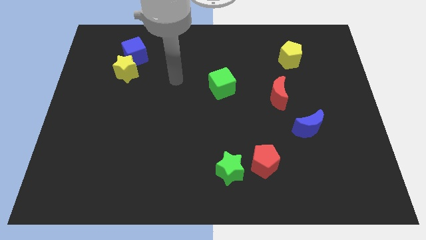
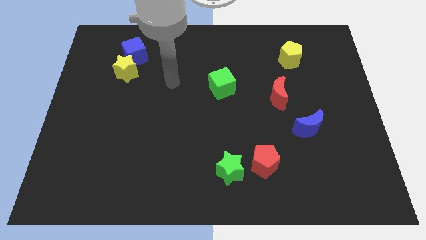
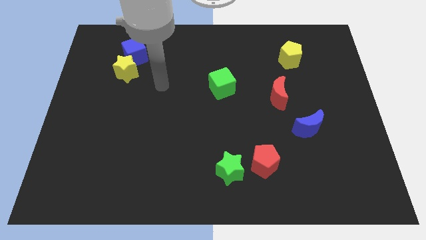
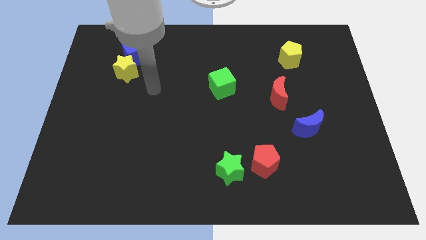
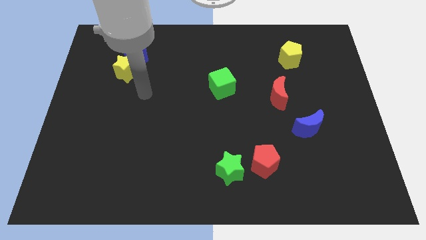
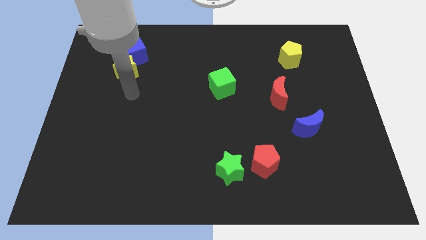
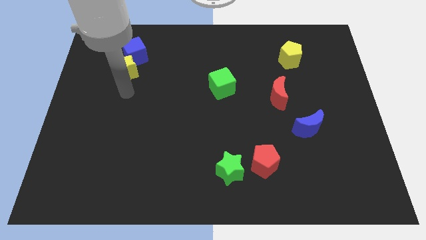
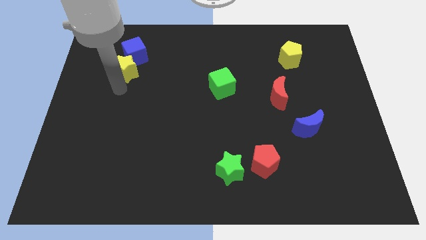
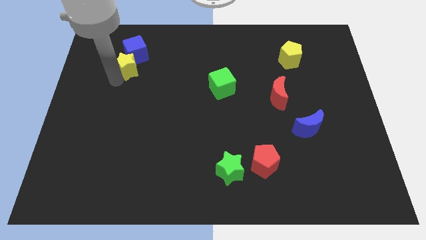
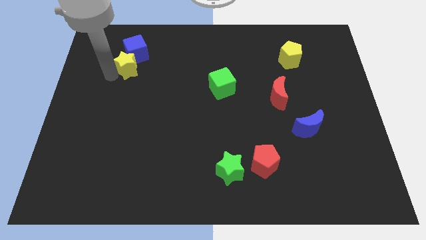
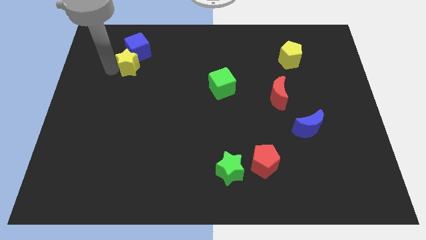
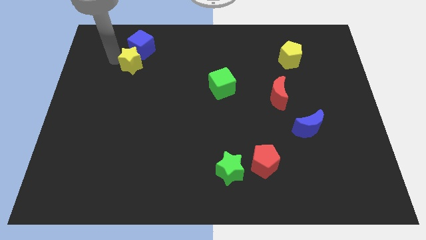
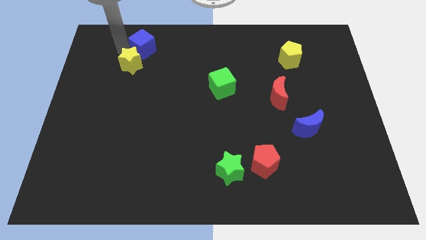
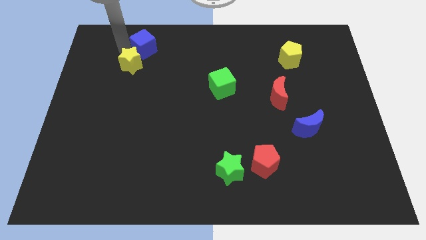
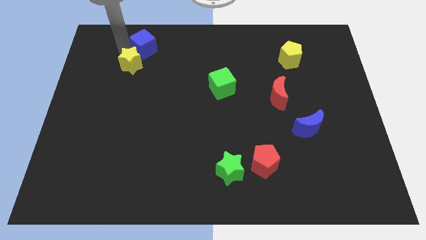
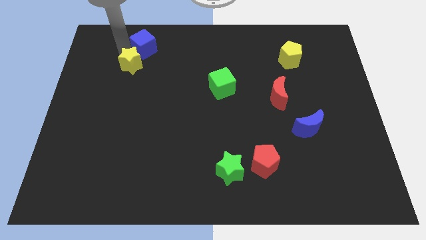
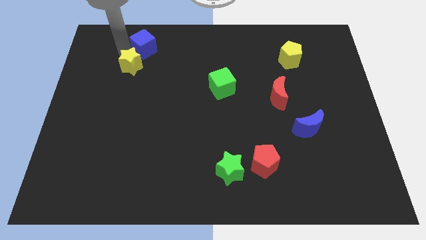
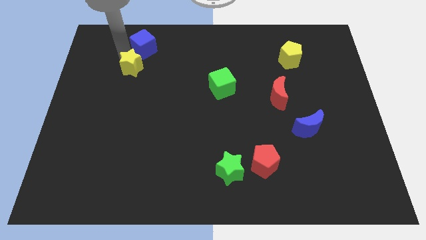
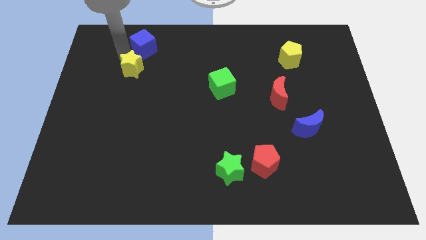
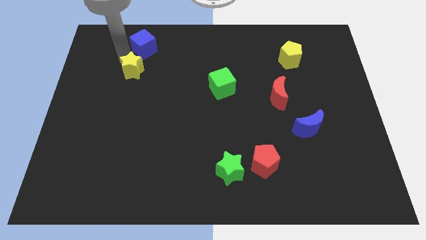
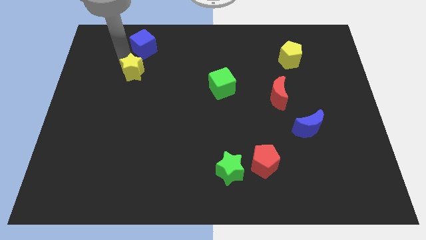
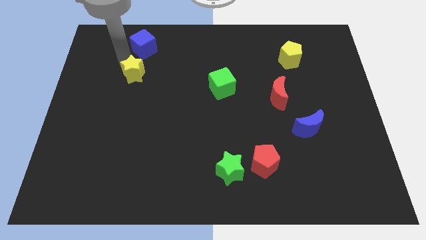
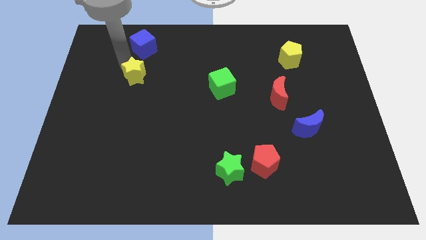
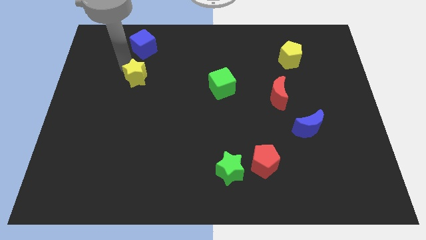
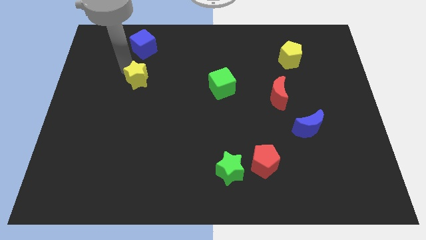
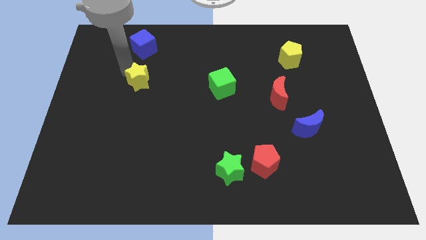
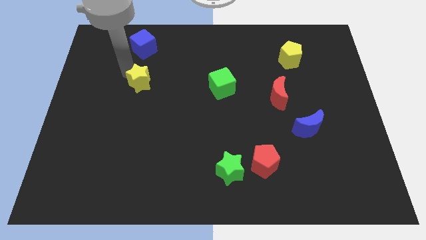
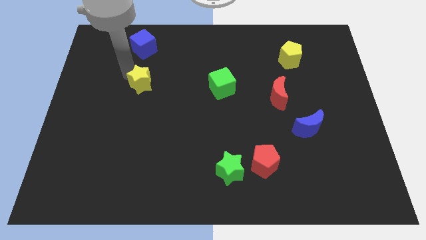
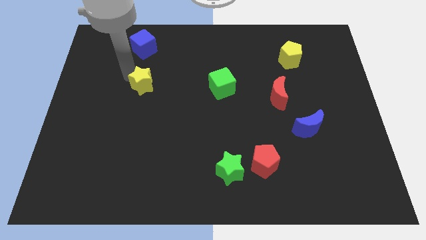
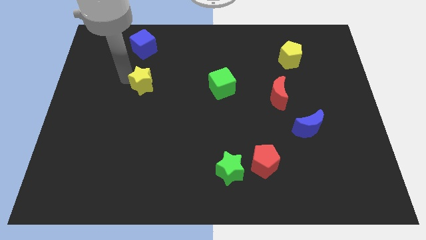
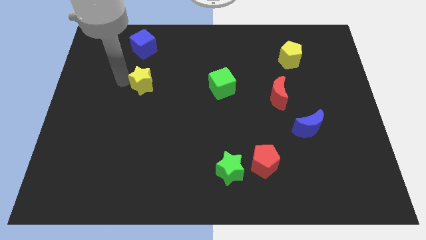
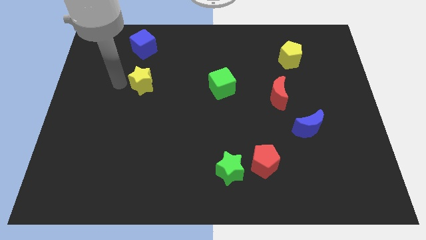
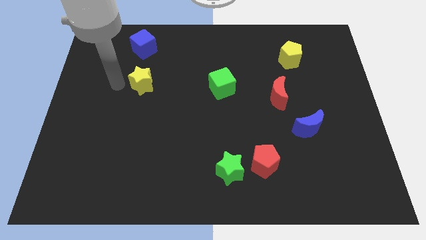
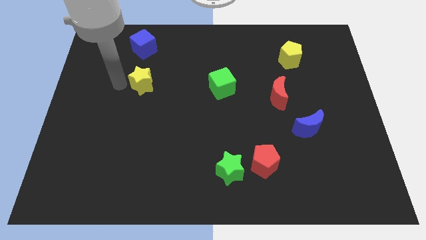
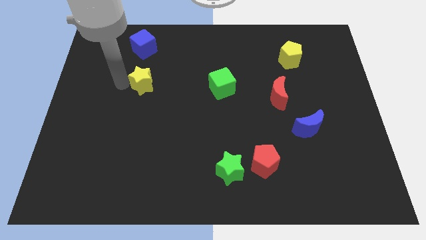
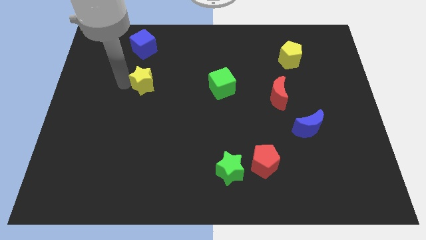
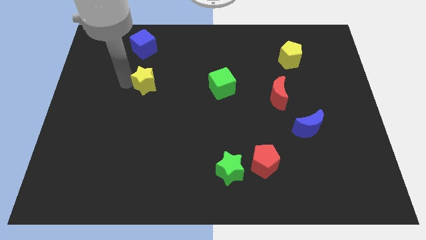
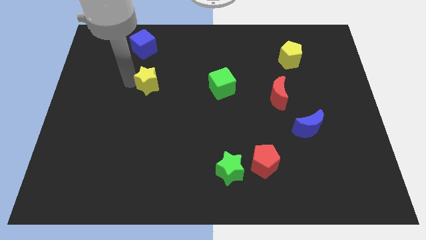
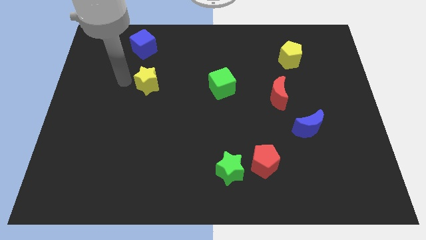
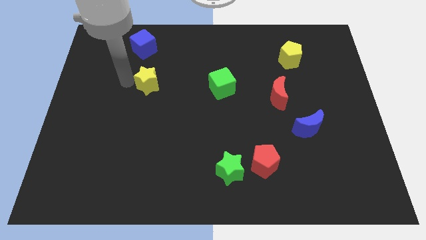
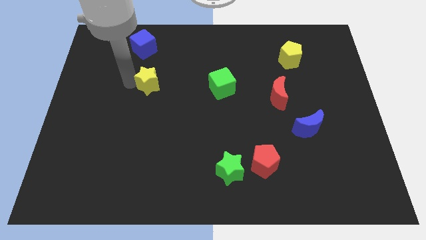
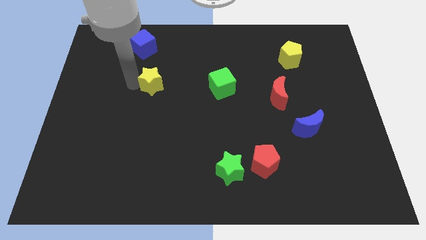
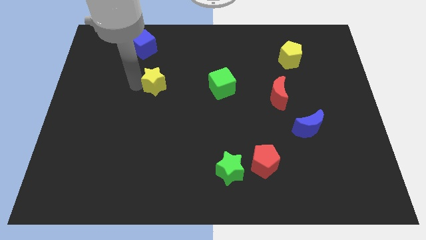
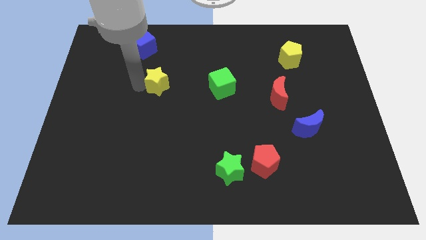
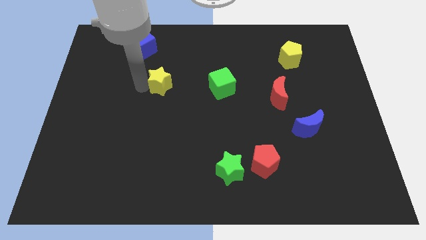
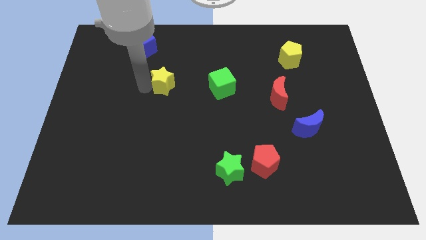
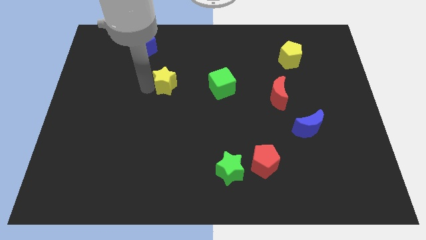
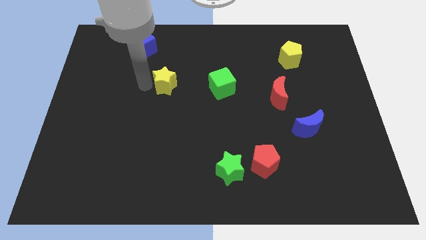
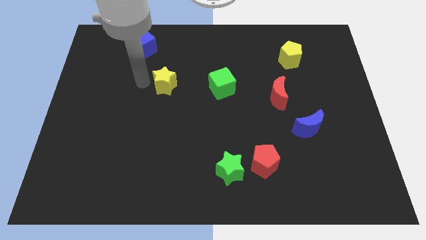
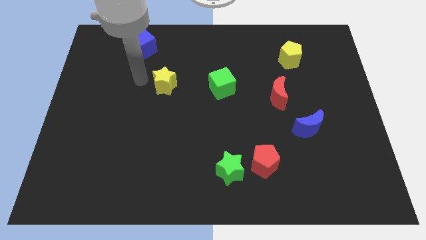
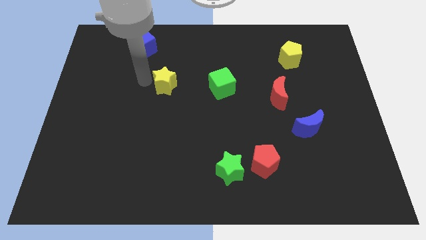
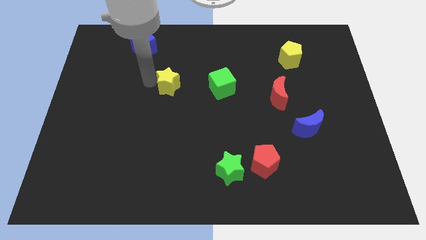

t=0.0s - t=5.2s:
move the yellow star to the center of the board

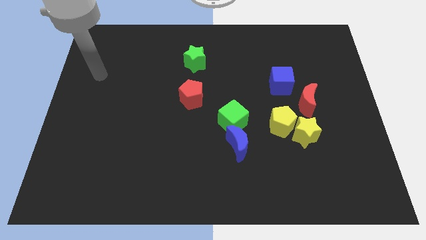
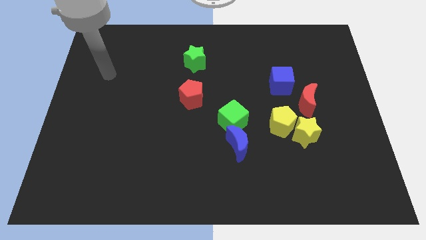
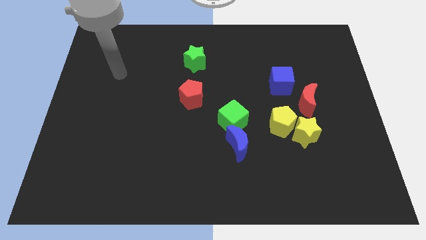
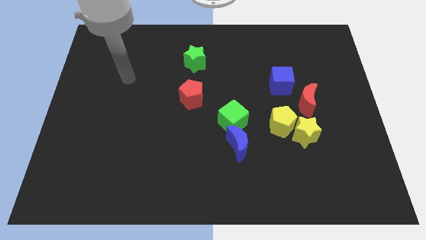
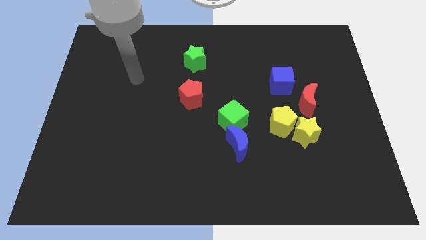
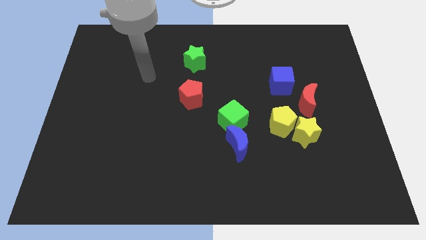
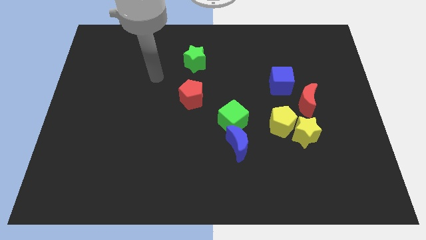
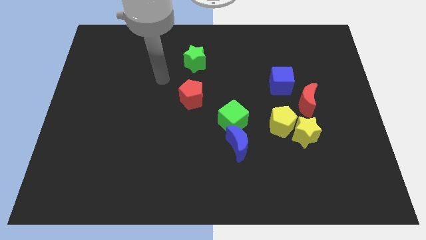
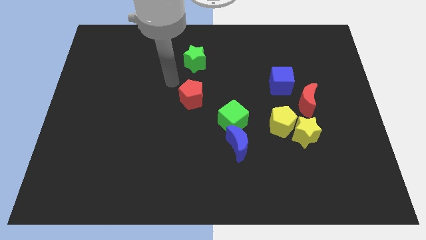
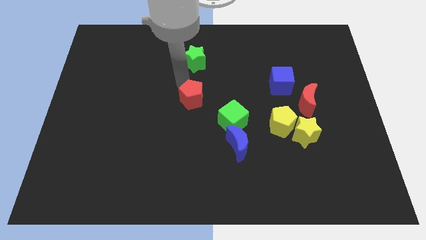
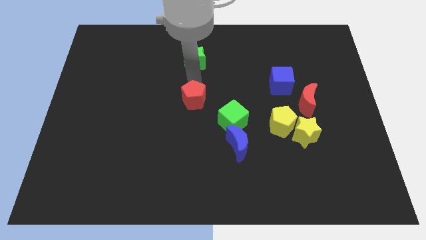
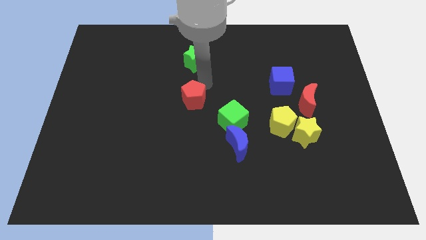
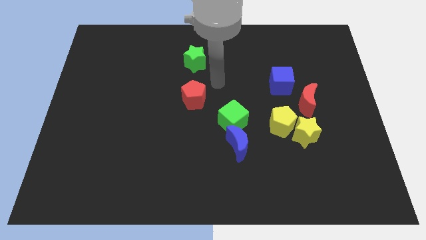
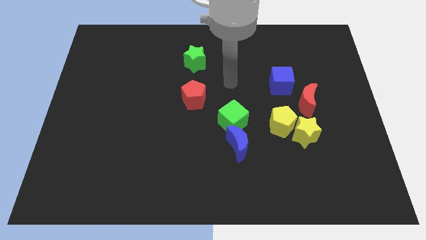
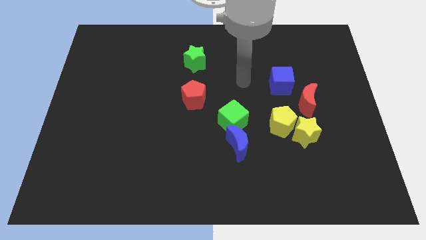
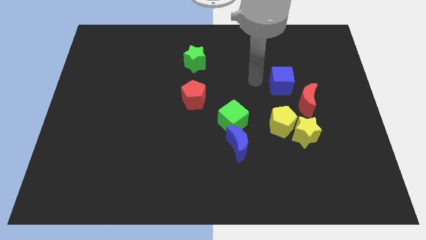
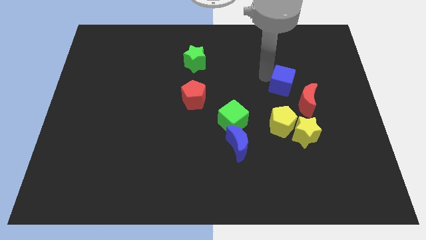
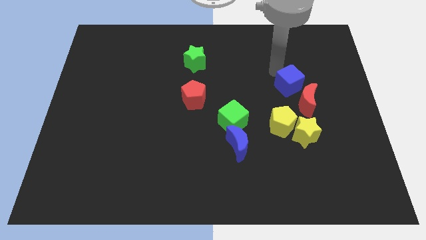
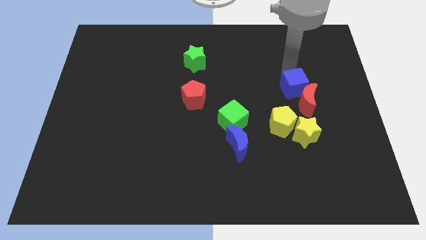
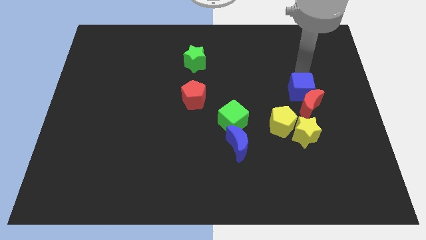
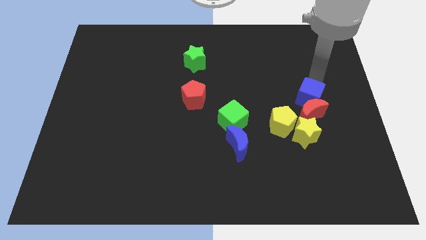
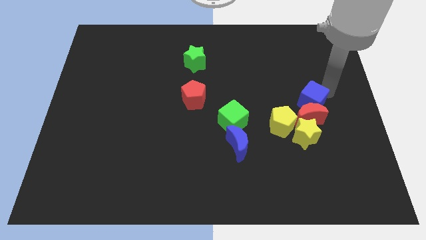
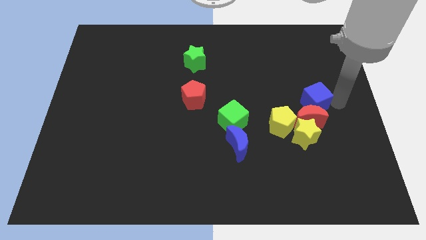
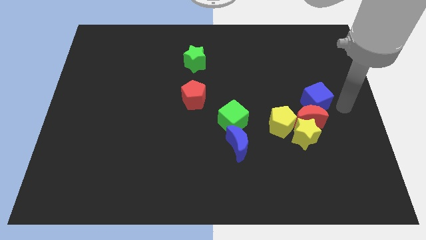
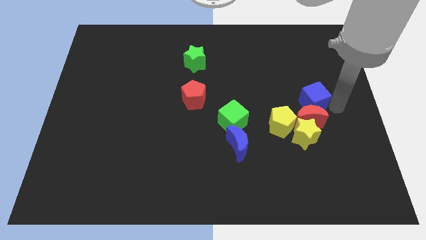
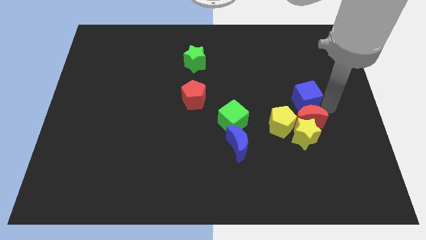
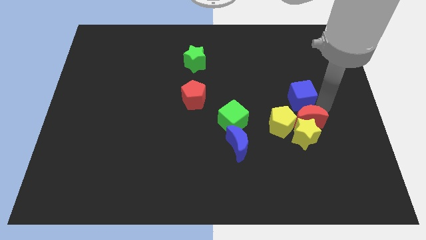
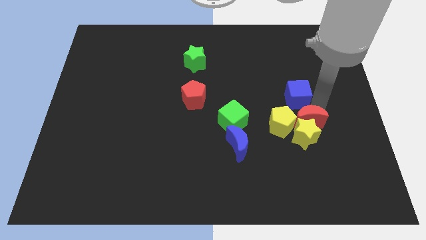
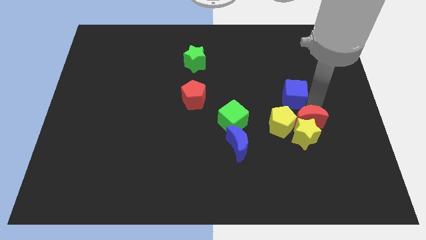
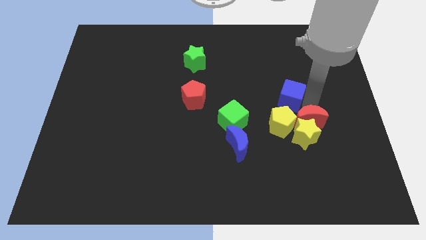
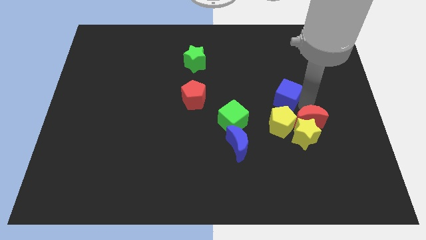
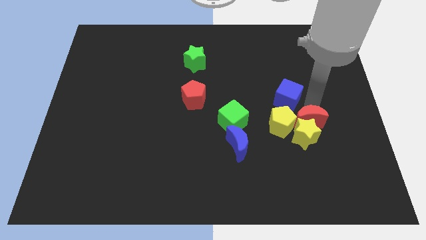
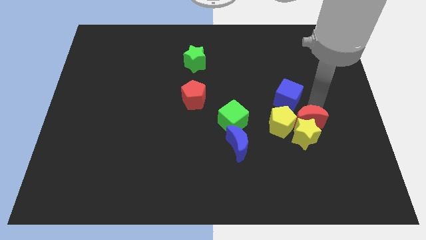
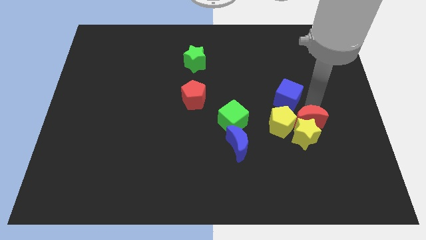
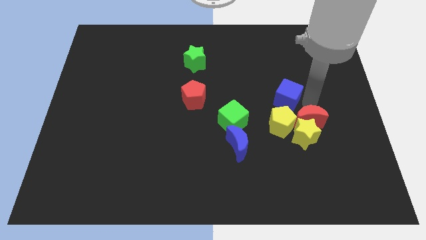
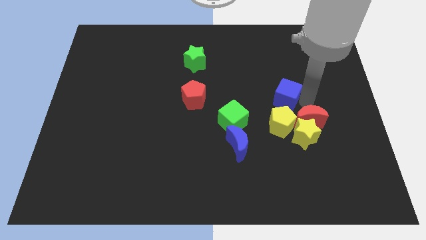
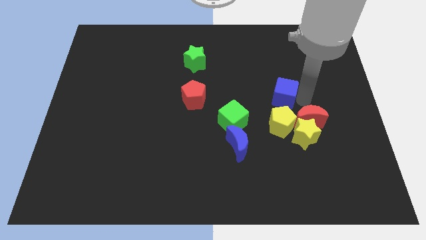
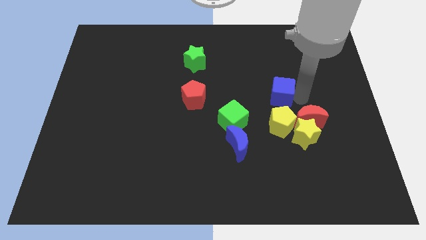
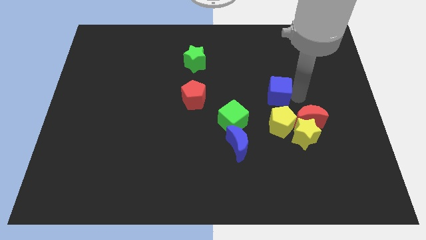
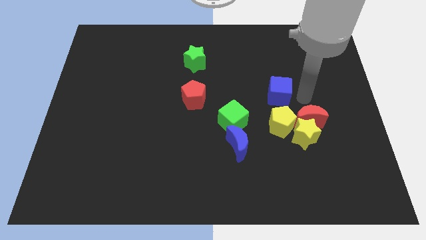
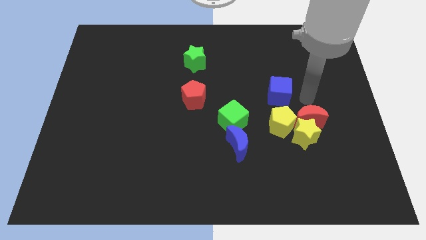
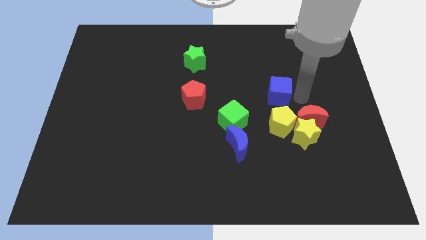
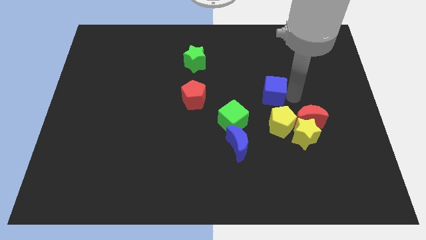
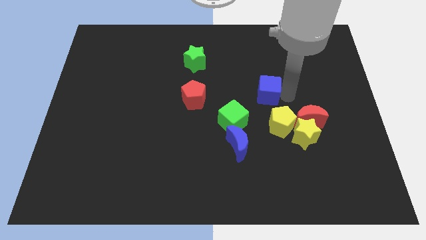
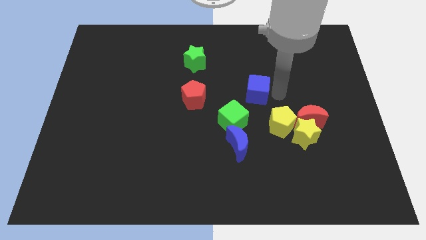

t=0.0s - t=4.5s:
push the blue cube to the middle of the board
